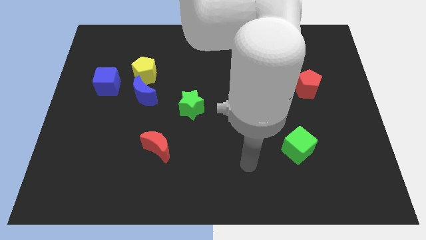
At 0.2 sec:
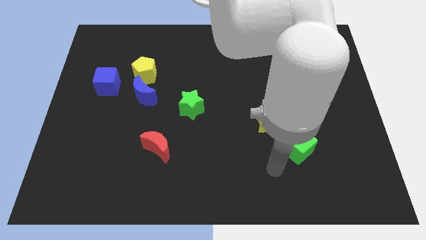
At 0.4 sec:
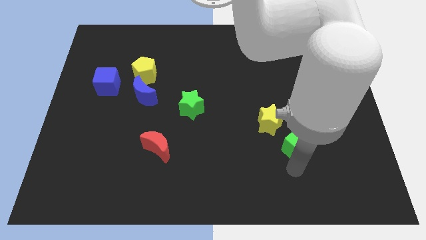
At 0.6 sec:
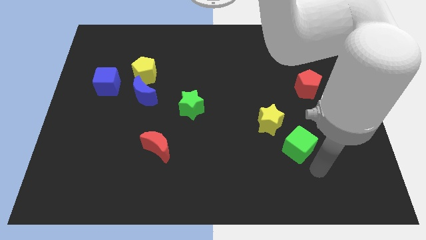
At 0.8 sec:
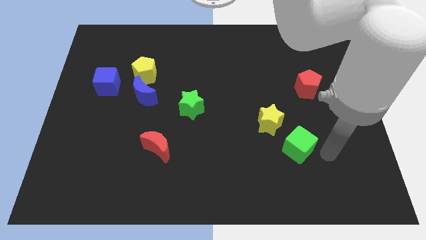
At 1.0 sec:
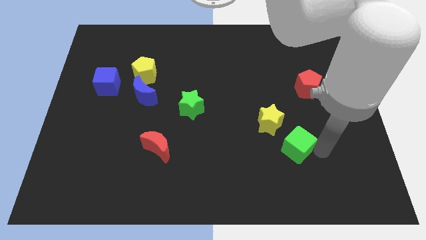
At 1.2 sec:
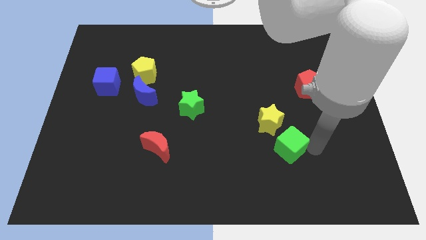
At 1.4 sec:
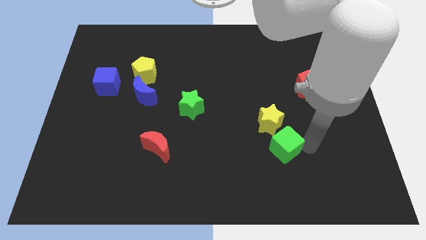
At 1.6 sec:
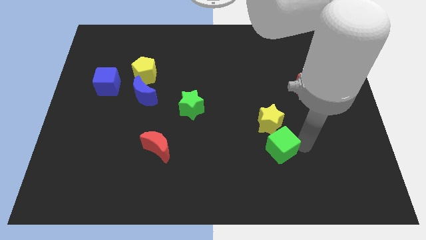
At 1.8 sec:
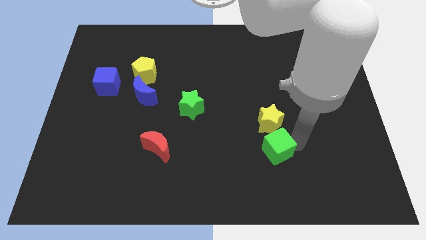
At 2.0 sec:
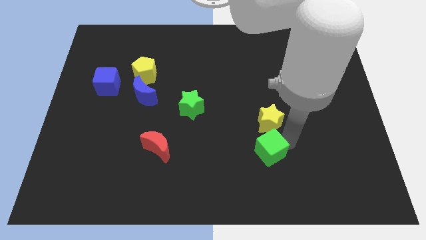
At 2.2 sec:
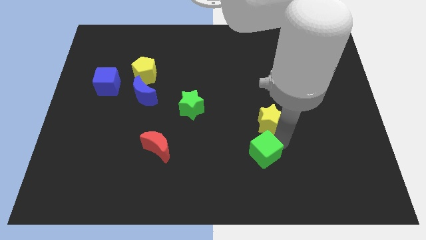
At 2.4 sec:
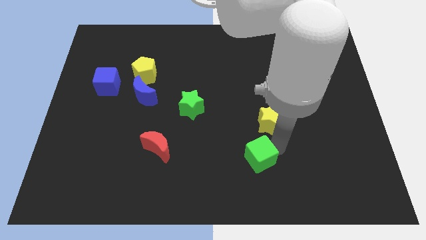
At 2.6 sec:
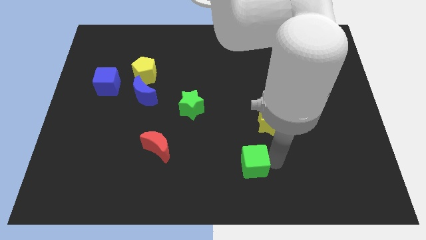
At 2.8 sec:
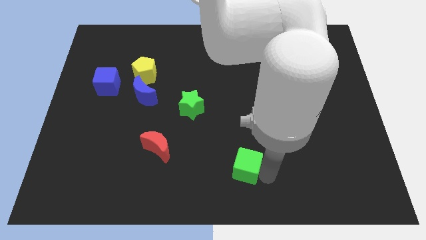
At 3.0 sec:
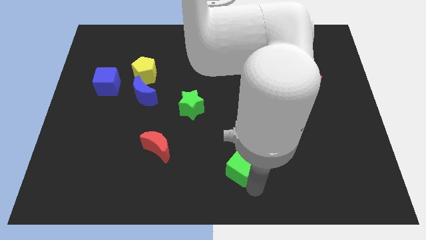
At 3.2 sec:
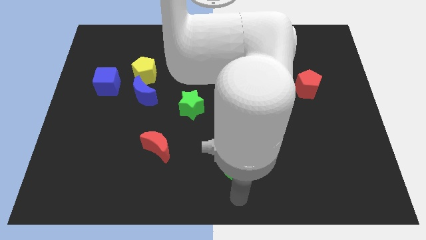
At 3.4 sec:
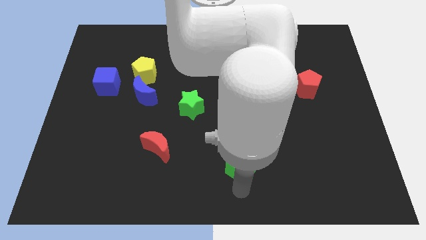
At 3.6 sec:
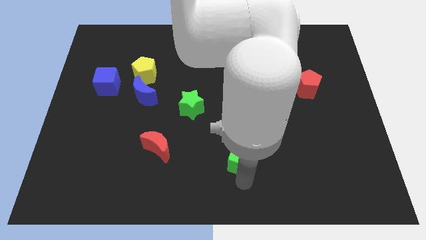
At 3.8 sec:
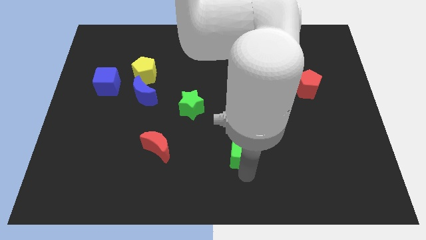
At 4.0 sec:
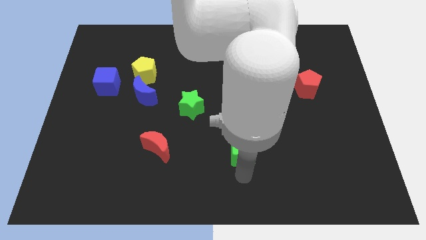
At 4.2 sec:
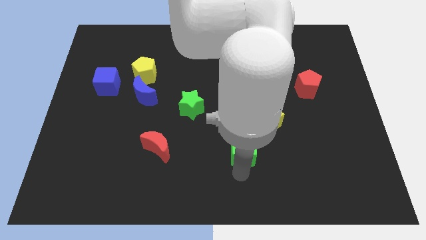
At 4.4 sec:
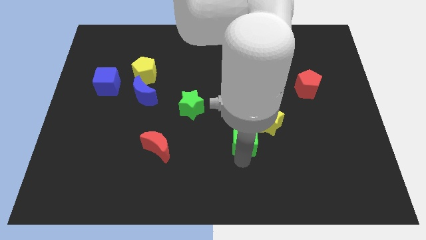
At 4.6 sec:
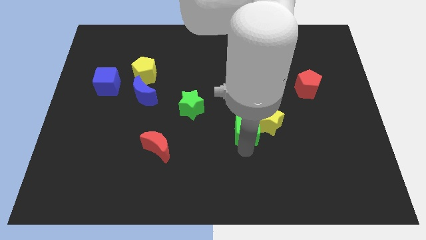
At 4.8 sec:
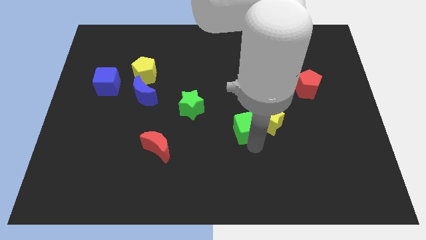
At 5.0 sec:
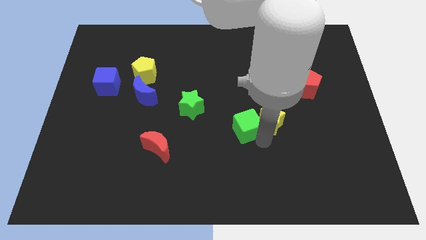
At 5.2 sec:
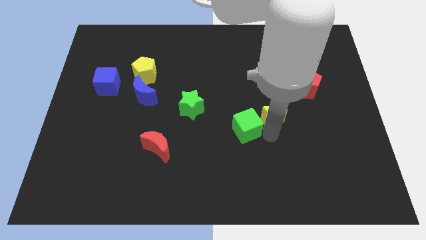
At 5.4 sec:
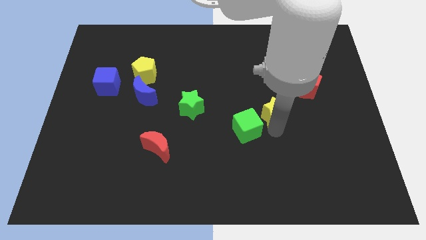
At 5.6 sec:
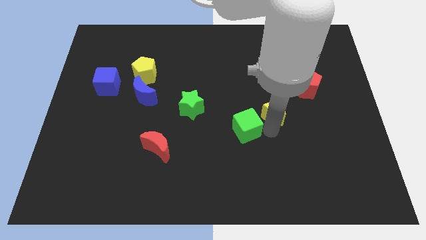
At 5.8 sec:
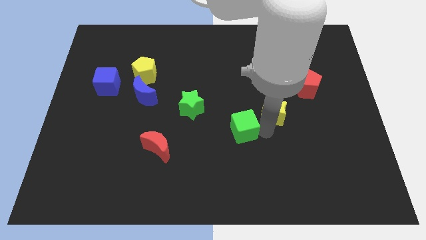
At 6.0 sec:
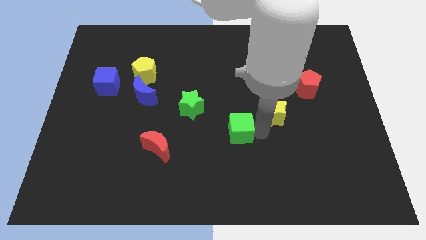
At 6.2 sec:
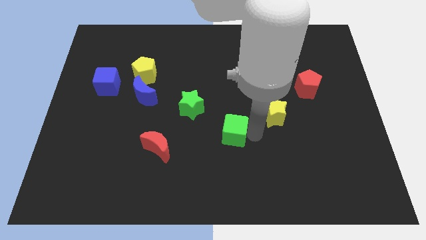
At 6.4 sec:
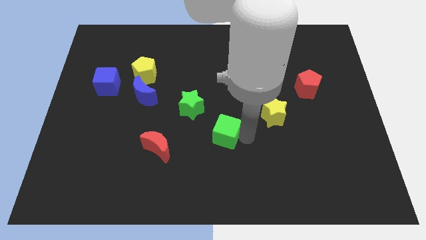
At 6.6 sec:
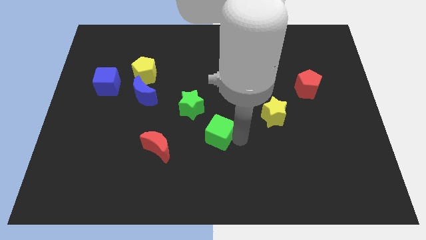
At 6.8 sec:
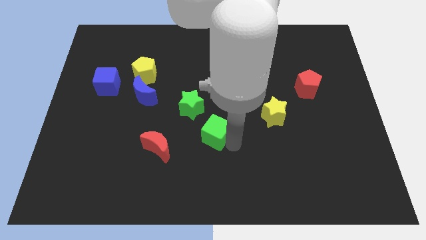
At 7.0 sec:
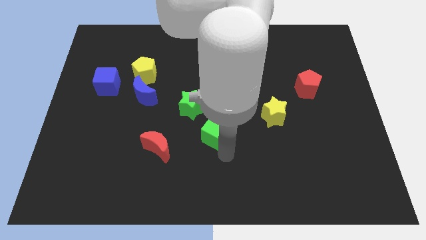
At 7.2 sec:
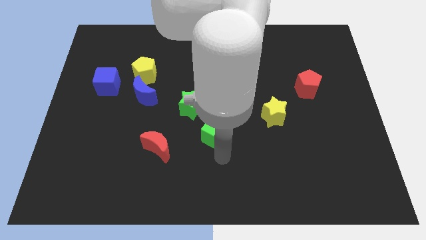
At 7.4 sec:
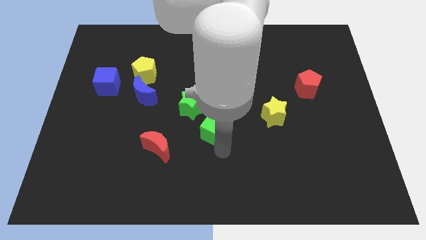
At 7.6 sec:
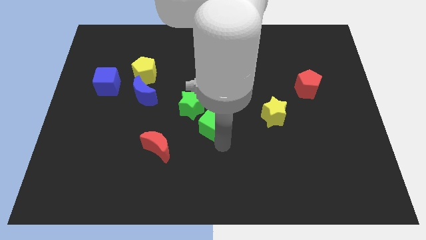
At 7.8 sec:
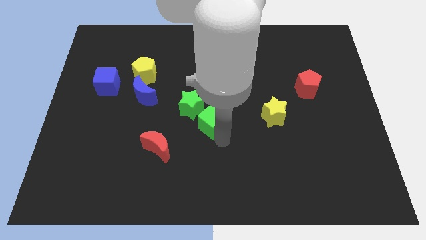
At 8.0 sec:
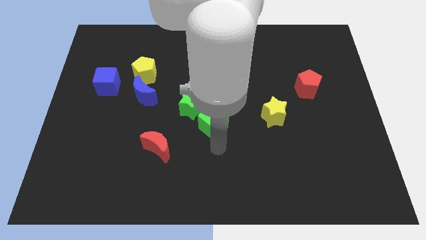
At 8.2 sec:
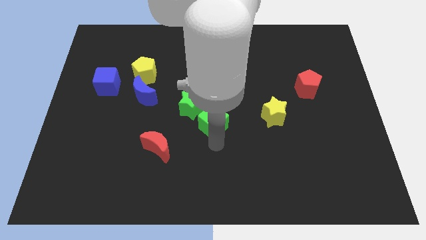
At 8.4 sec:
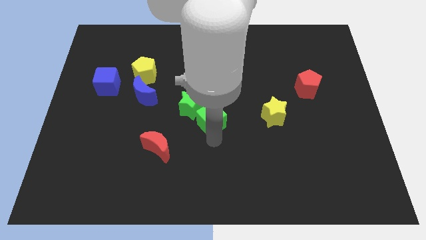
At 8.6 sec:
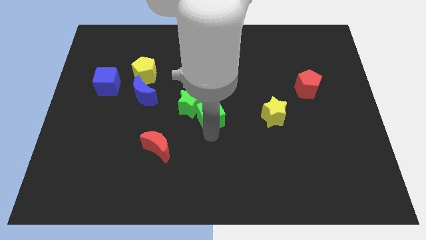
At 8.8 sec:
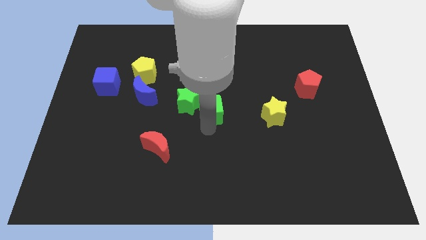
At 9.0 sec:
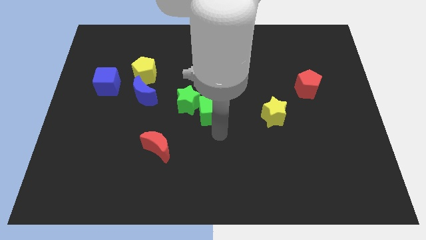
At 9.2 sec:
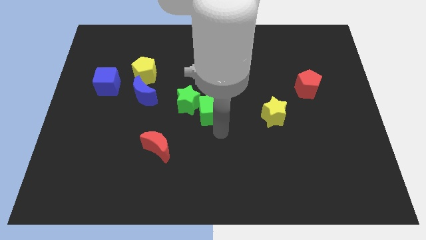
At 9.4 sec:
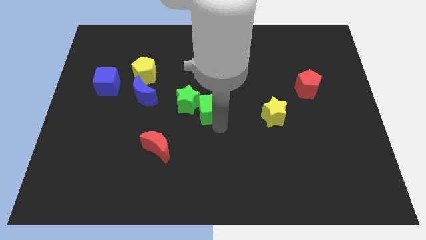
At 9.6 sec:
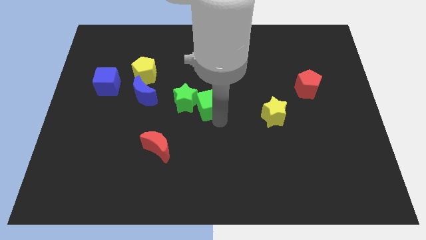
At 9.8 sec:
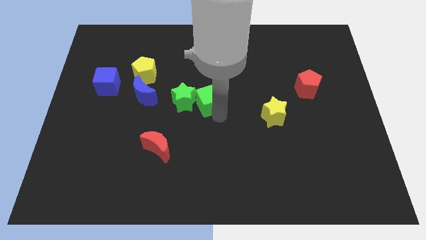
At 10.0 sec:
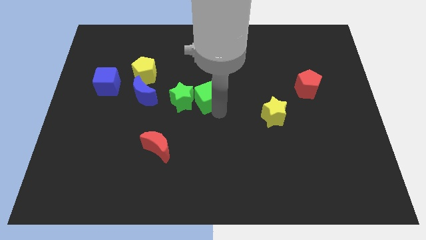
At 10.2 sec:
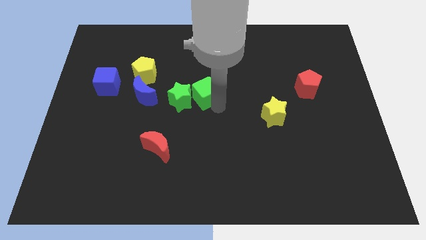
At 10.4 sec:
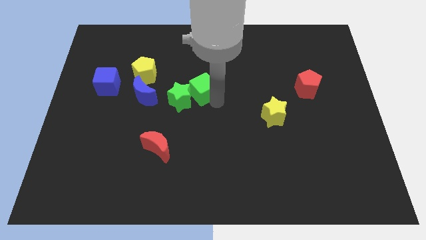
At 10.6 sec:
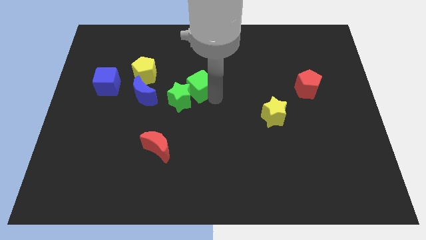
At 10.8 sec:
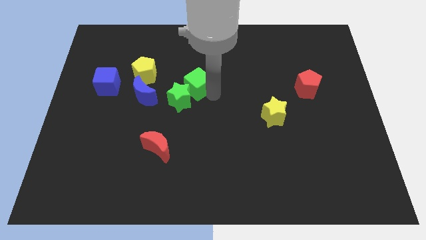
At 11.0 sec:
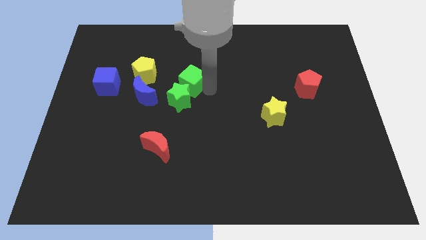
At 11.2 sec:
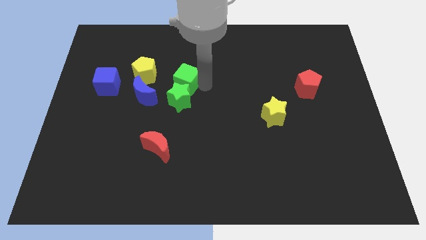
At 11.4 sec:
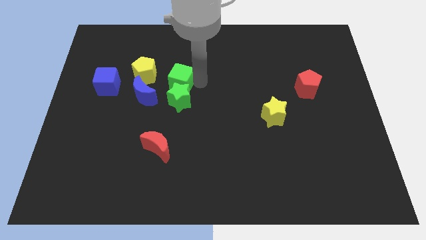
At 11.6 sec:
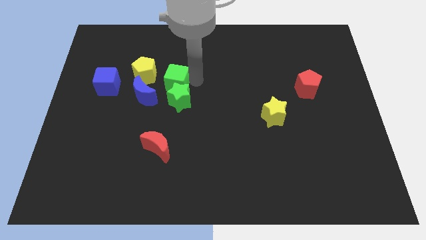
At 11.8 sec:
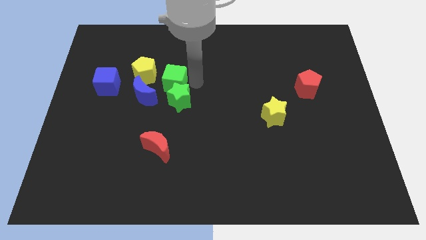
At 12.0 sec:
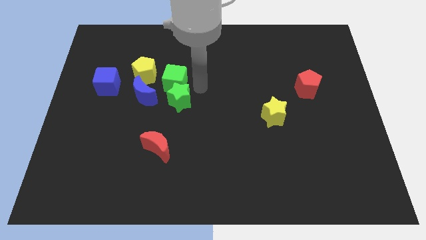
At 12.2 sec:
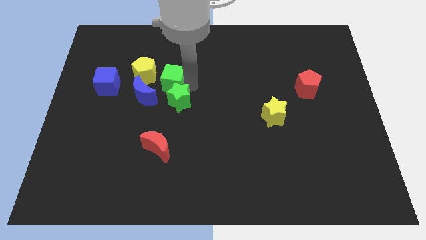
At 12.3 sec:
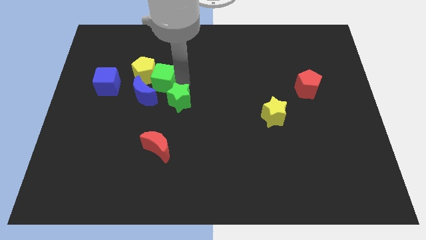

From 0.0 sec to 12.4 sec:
put the green cube next to the yellow pentagon
